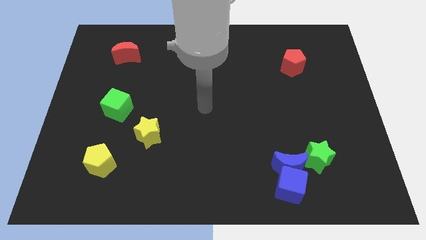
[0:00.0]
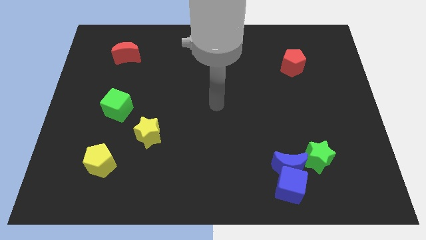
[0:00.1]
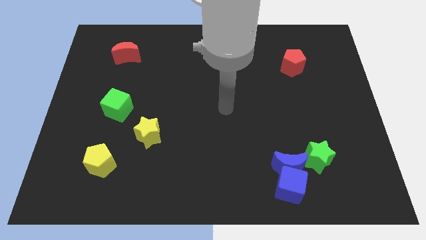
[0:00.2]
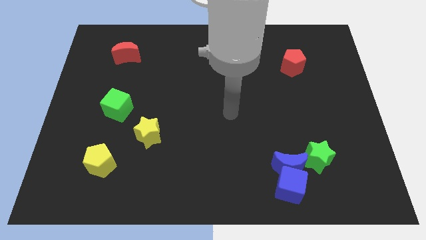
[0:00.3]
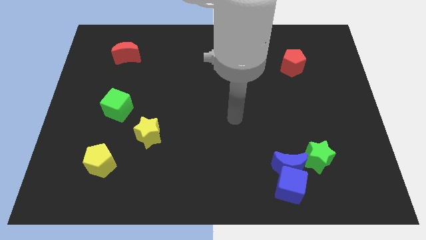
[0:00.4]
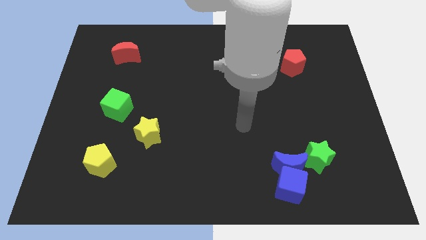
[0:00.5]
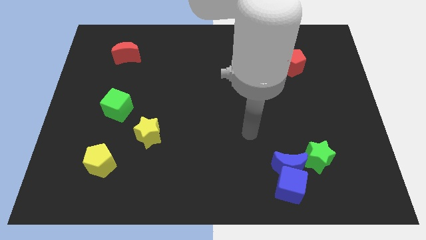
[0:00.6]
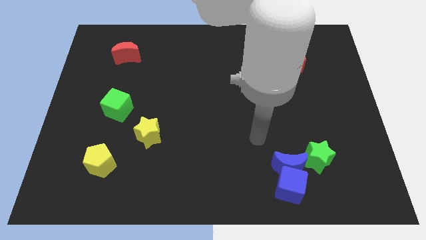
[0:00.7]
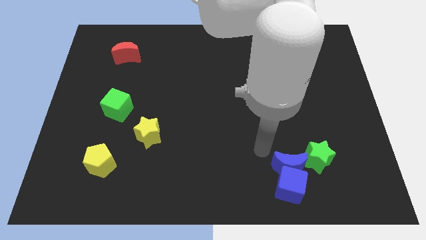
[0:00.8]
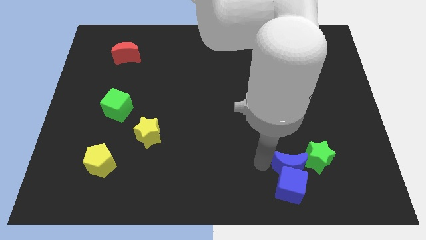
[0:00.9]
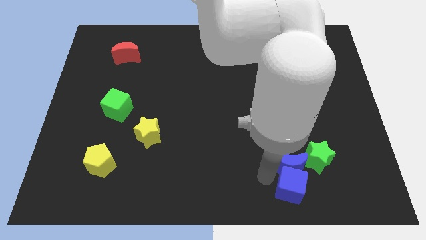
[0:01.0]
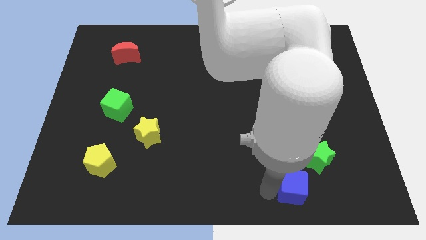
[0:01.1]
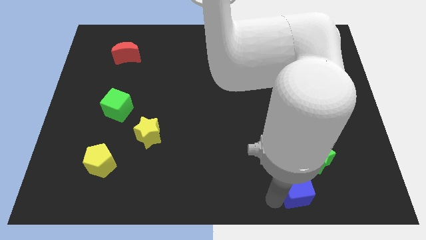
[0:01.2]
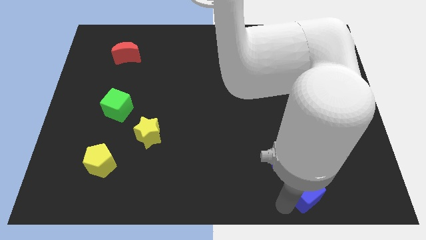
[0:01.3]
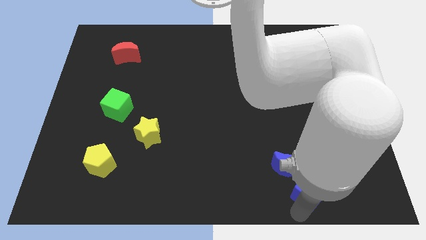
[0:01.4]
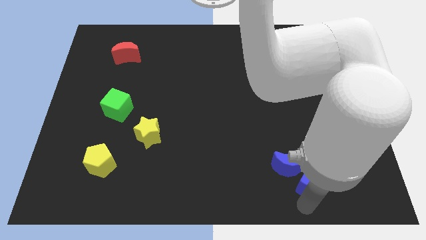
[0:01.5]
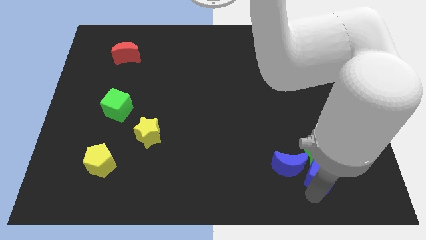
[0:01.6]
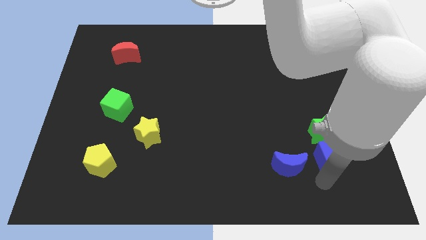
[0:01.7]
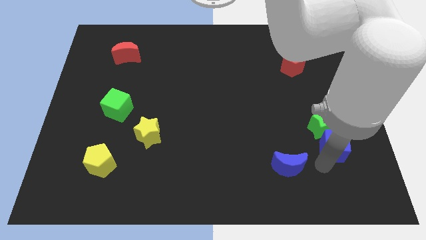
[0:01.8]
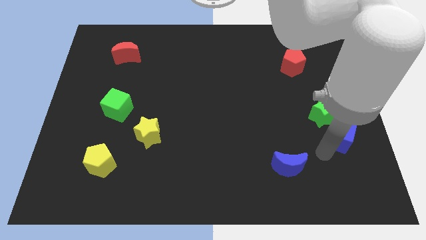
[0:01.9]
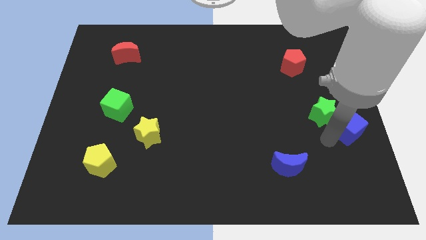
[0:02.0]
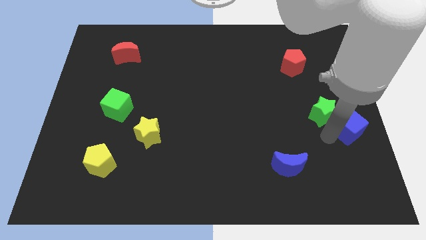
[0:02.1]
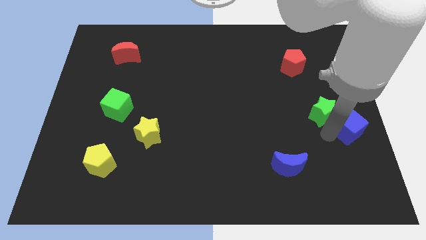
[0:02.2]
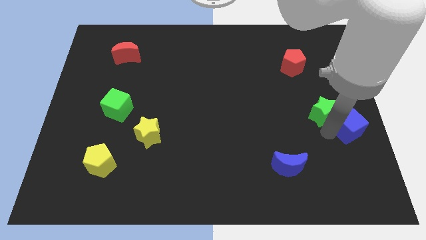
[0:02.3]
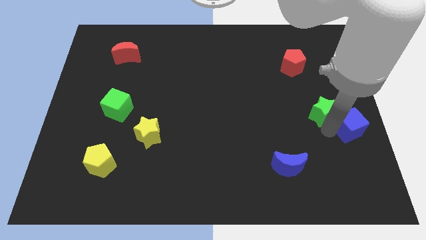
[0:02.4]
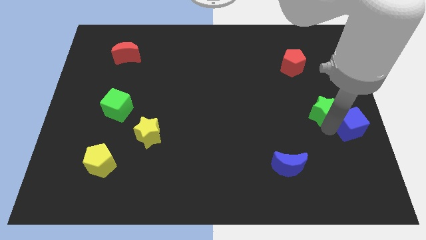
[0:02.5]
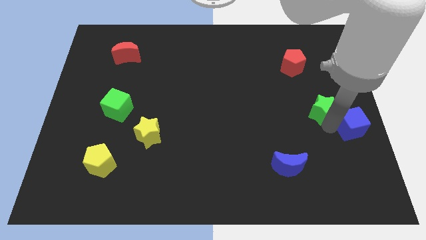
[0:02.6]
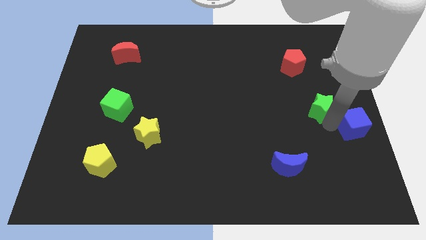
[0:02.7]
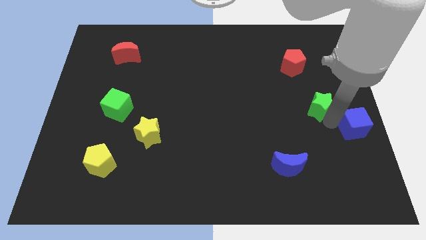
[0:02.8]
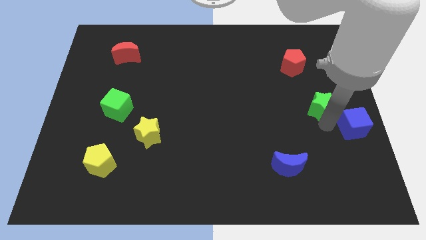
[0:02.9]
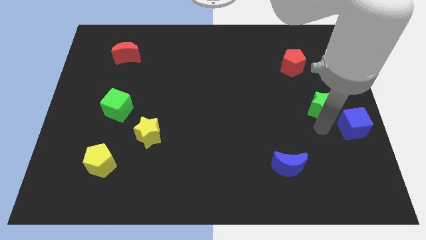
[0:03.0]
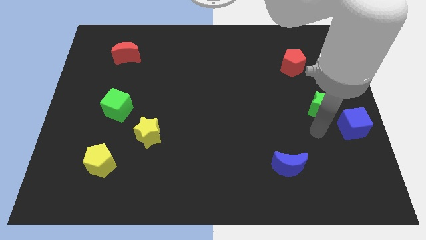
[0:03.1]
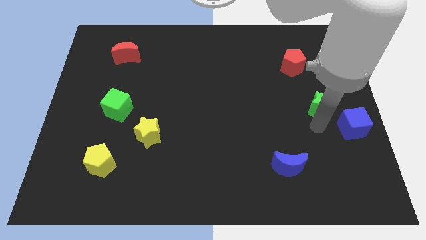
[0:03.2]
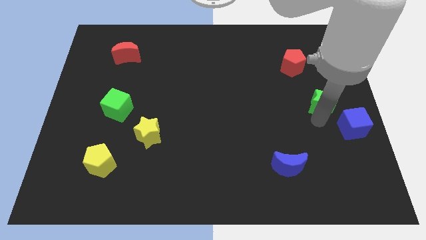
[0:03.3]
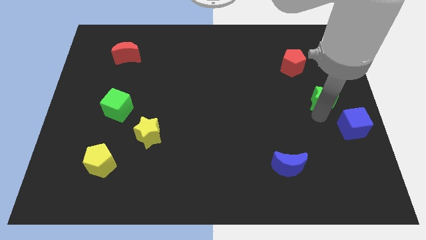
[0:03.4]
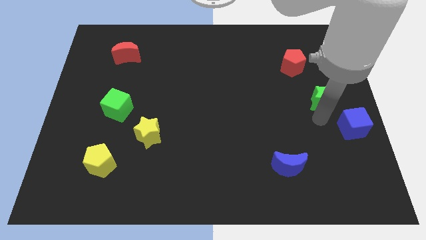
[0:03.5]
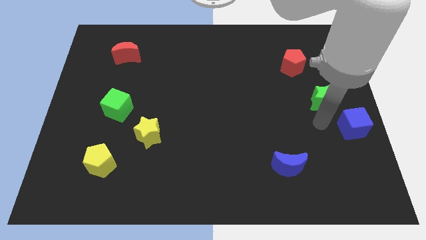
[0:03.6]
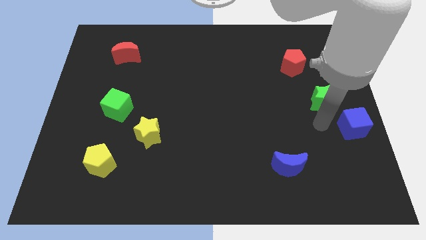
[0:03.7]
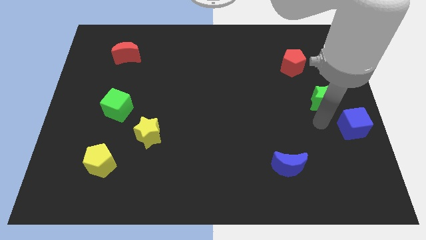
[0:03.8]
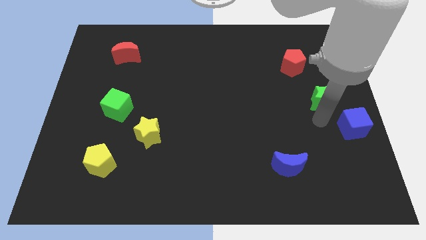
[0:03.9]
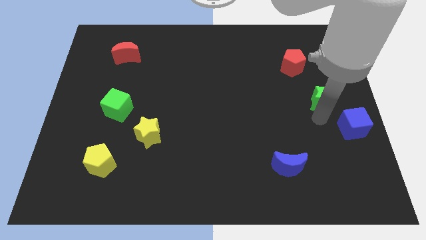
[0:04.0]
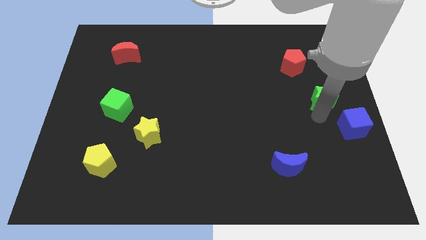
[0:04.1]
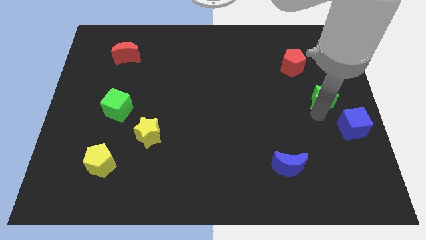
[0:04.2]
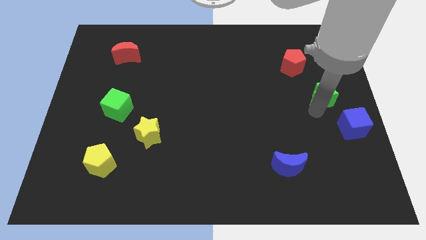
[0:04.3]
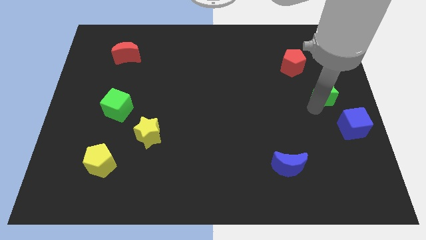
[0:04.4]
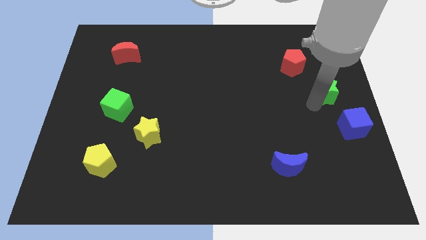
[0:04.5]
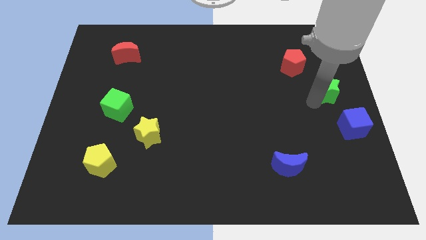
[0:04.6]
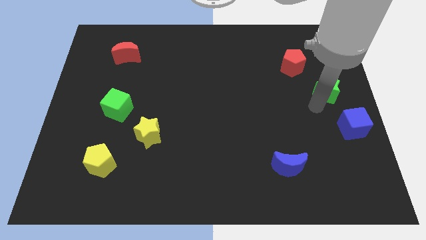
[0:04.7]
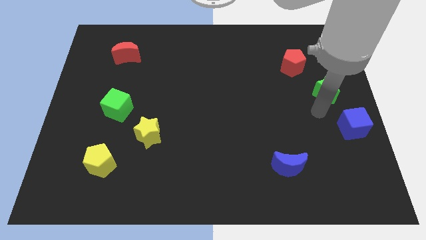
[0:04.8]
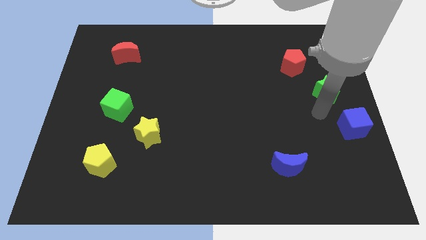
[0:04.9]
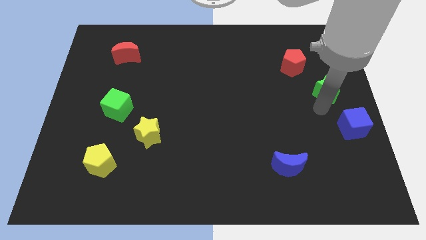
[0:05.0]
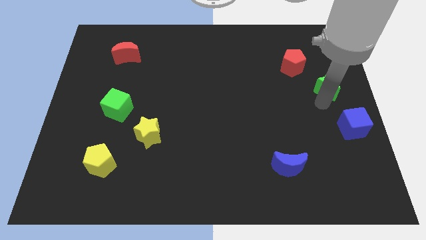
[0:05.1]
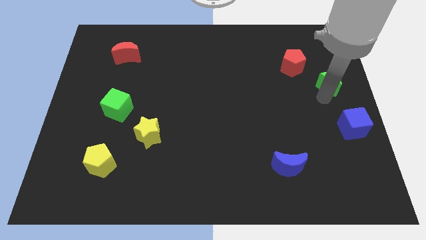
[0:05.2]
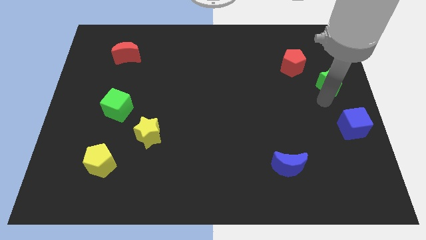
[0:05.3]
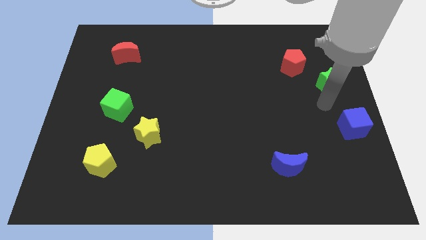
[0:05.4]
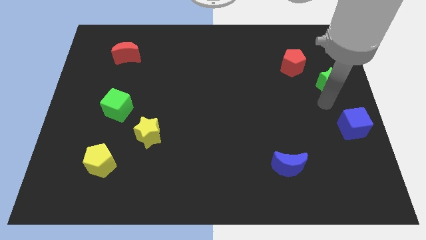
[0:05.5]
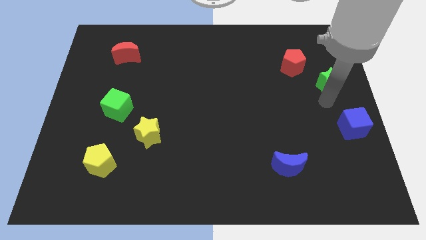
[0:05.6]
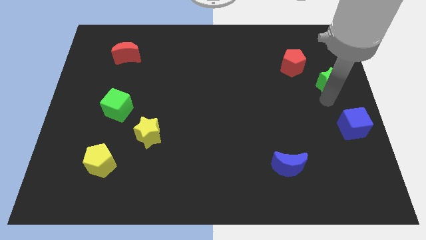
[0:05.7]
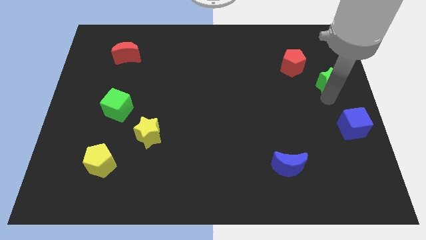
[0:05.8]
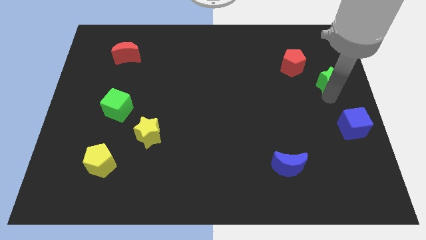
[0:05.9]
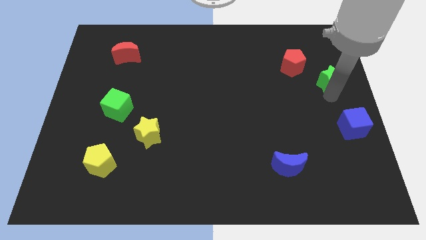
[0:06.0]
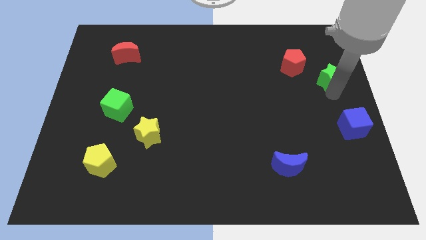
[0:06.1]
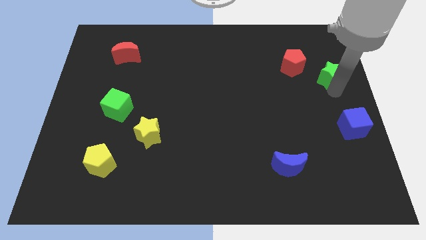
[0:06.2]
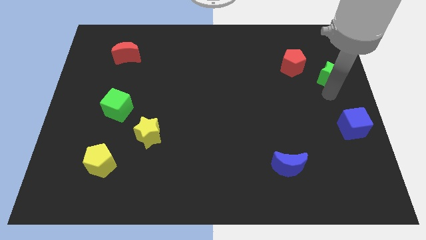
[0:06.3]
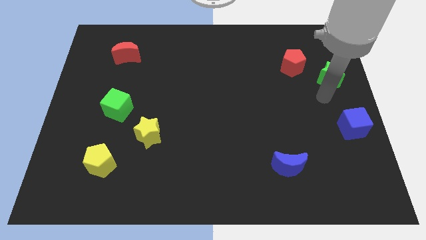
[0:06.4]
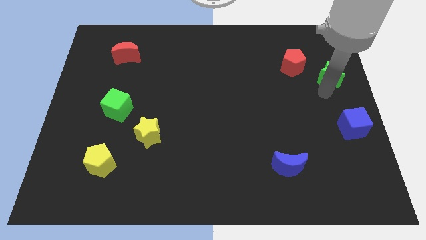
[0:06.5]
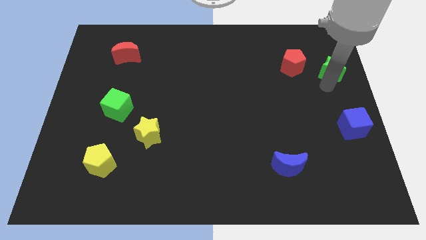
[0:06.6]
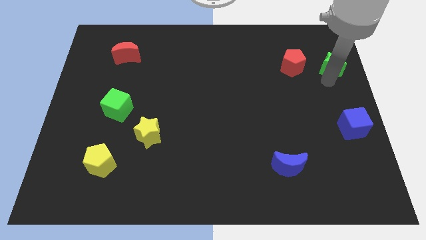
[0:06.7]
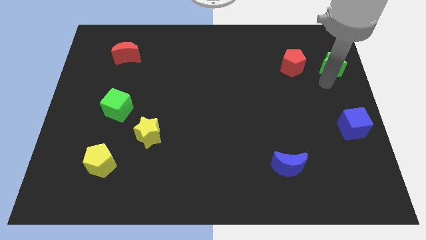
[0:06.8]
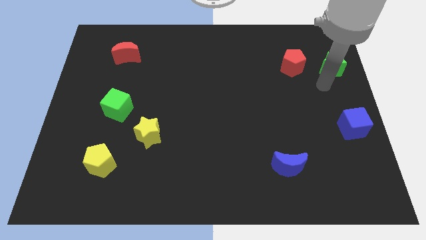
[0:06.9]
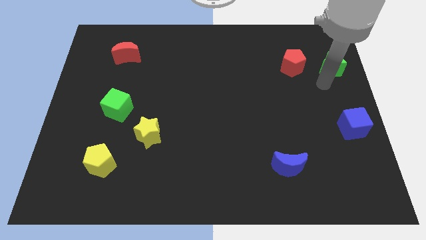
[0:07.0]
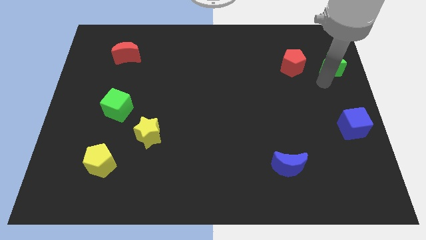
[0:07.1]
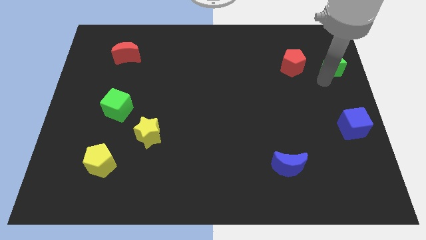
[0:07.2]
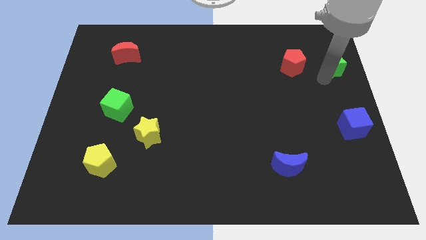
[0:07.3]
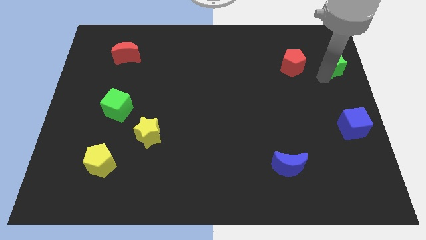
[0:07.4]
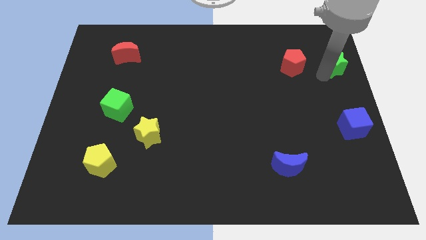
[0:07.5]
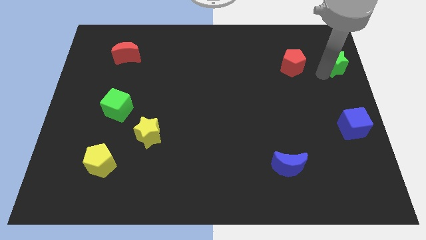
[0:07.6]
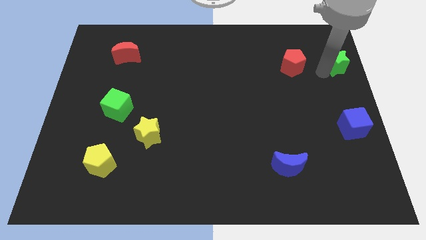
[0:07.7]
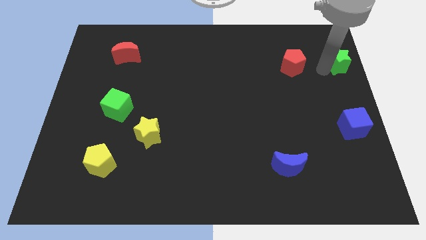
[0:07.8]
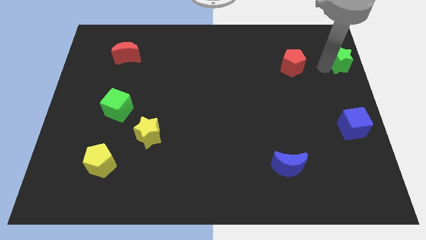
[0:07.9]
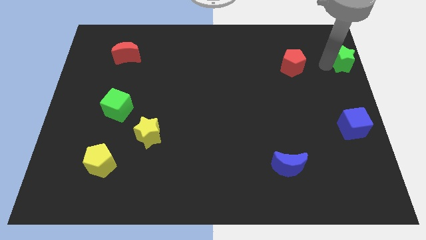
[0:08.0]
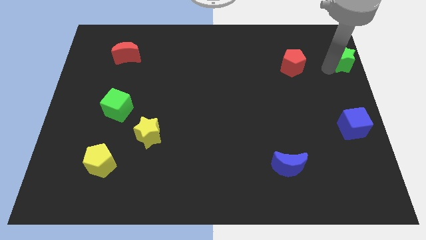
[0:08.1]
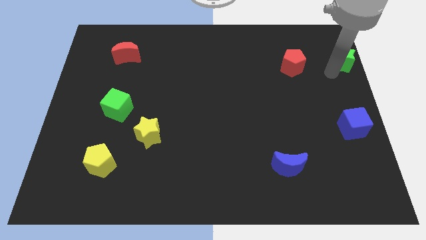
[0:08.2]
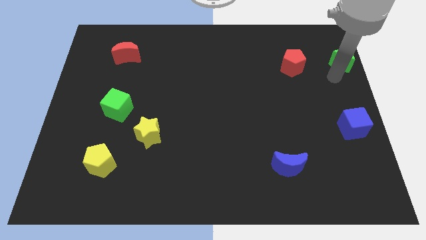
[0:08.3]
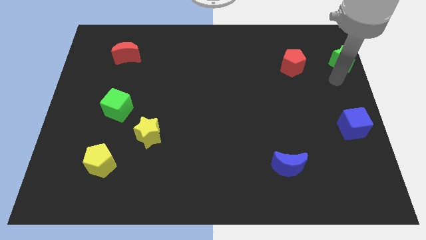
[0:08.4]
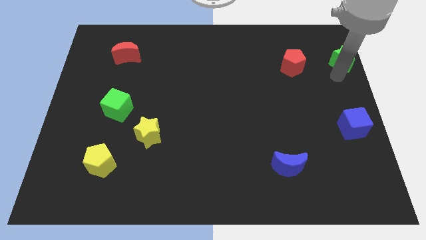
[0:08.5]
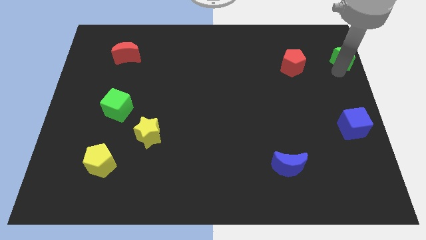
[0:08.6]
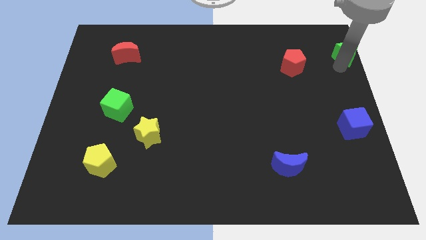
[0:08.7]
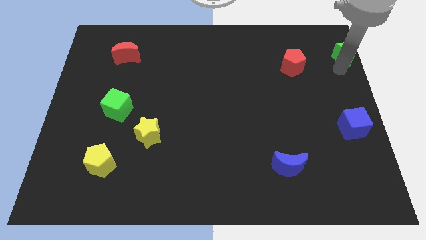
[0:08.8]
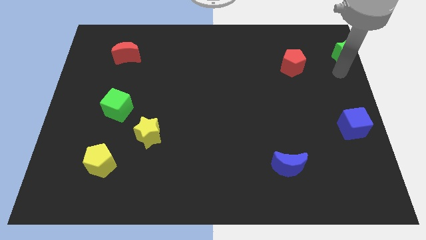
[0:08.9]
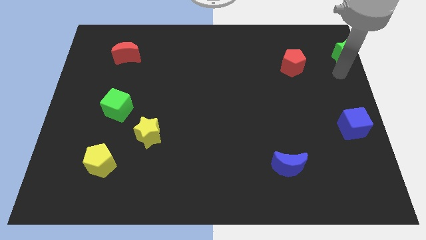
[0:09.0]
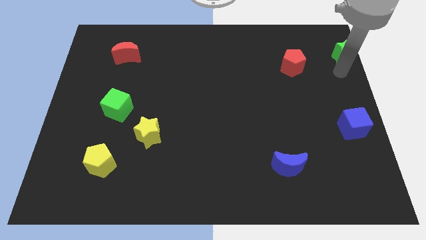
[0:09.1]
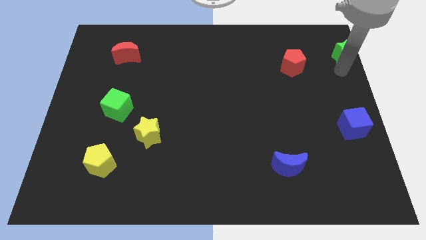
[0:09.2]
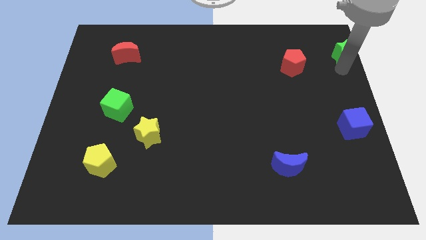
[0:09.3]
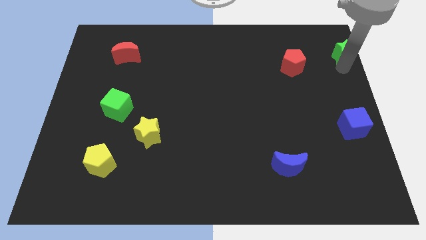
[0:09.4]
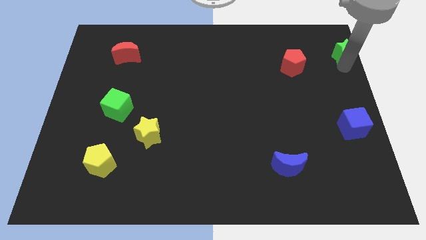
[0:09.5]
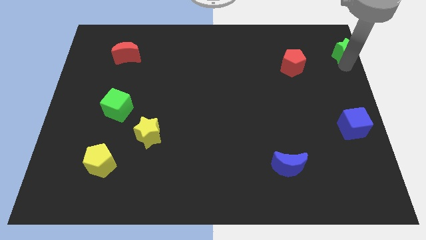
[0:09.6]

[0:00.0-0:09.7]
push the green star to the top right corner
